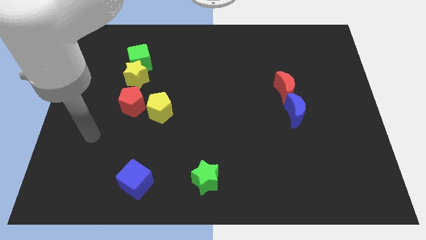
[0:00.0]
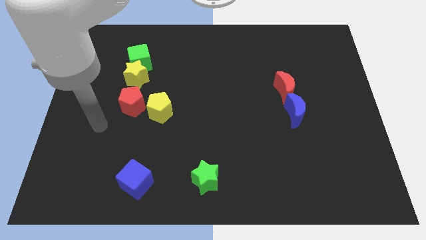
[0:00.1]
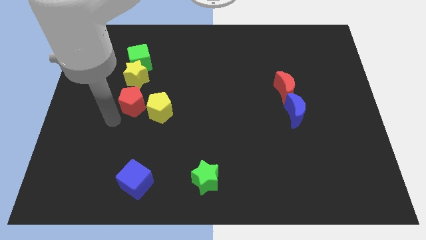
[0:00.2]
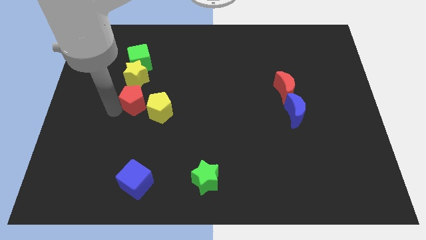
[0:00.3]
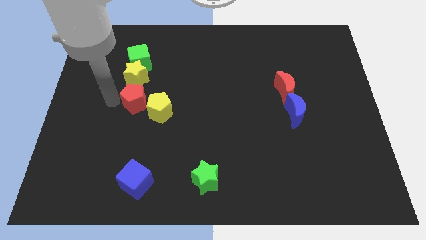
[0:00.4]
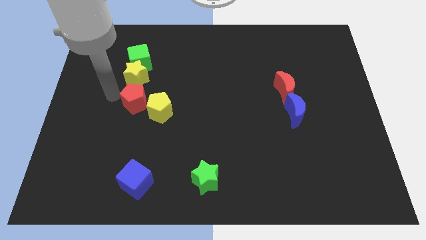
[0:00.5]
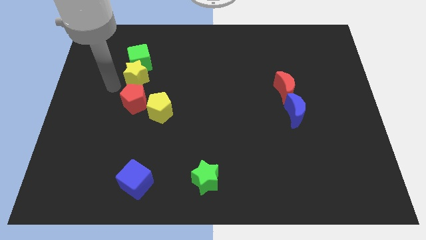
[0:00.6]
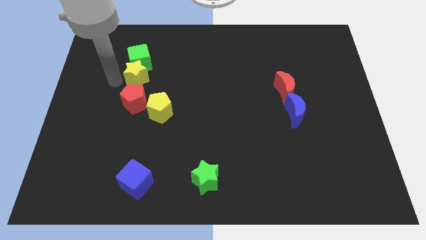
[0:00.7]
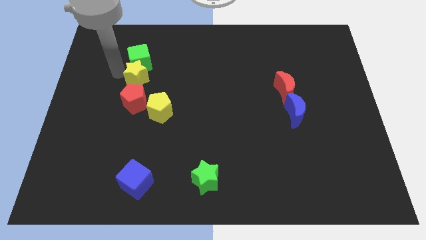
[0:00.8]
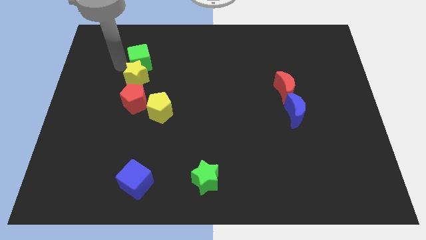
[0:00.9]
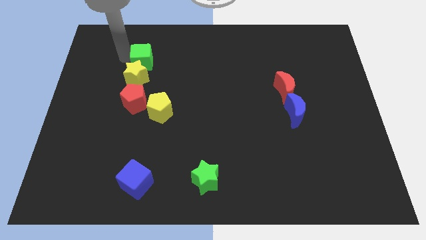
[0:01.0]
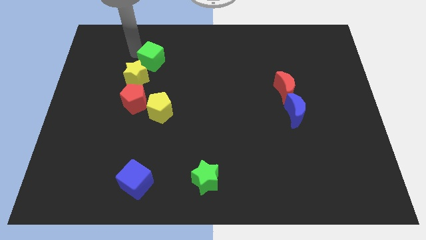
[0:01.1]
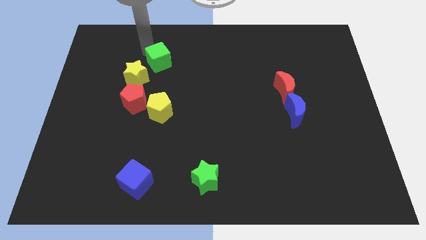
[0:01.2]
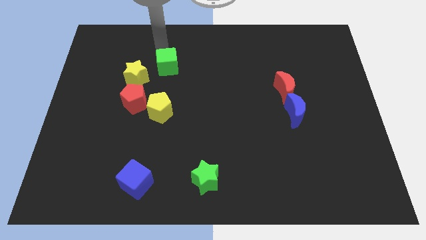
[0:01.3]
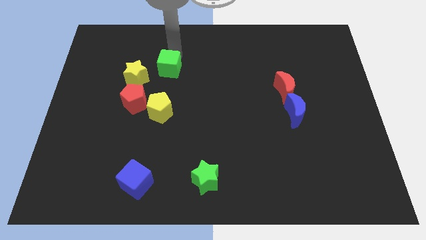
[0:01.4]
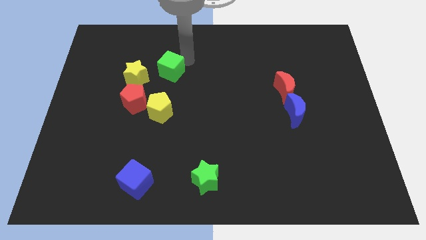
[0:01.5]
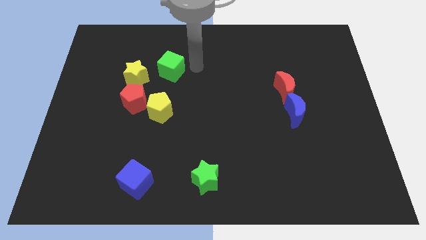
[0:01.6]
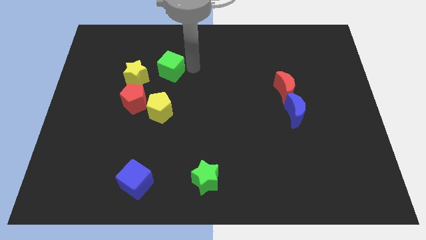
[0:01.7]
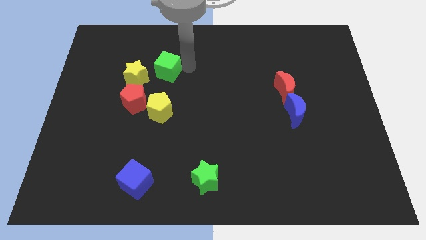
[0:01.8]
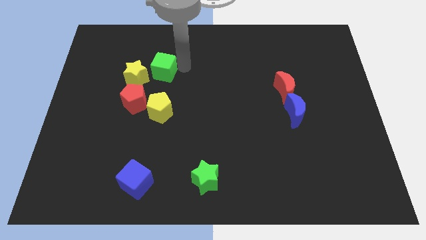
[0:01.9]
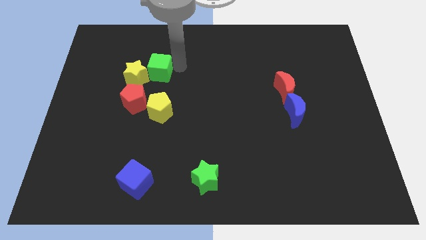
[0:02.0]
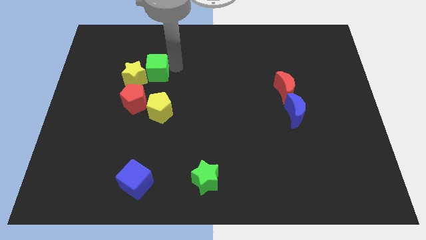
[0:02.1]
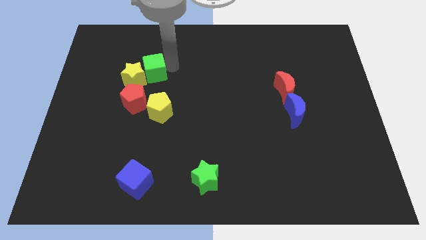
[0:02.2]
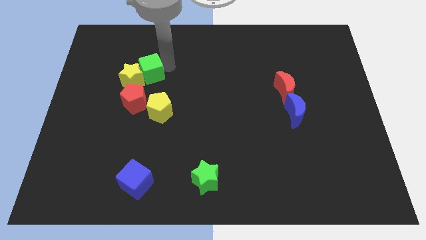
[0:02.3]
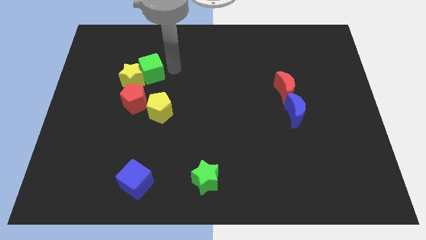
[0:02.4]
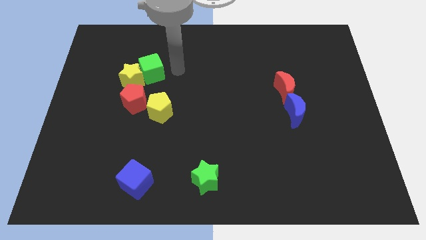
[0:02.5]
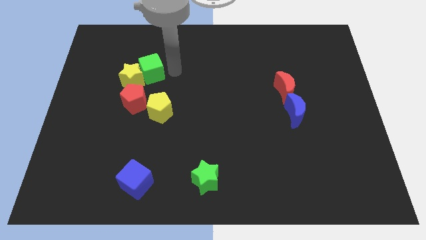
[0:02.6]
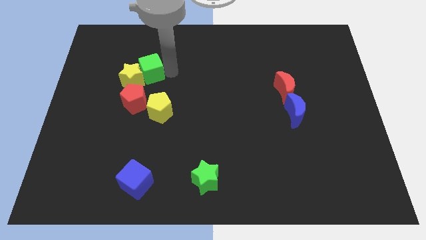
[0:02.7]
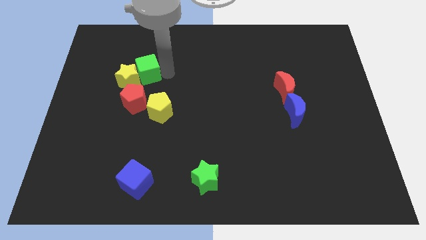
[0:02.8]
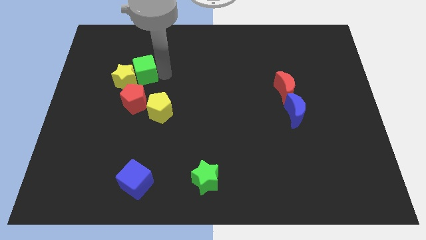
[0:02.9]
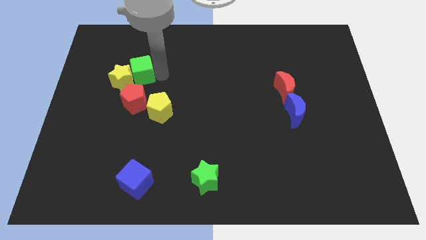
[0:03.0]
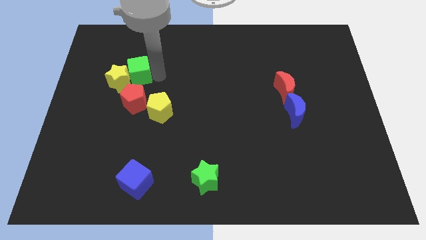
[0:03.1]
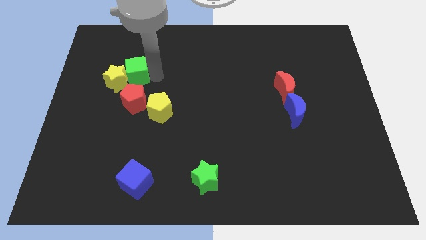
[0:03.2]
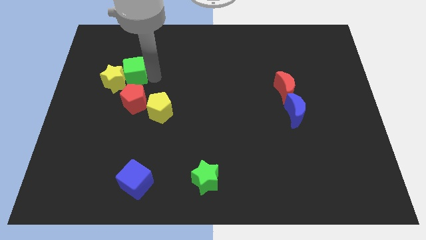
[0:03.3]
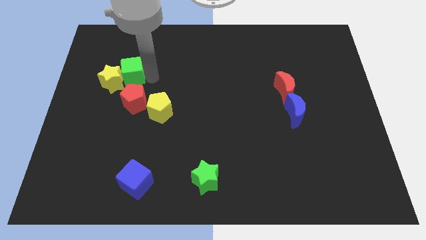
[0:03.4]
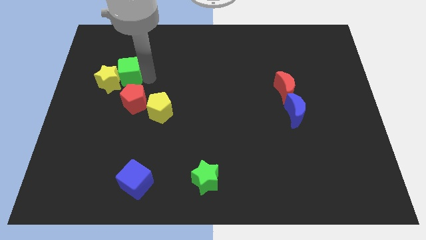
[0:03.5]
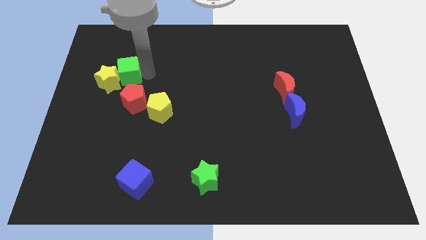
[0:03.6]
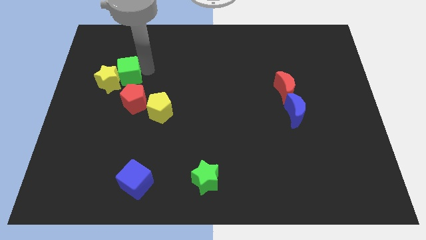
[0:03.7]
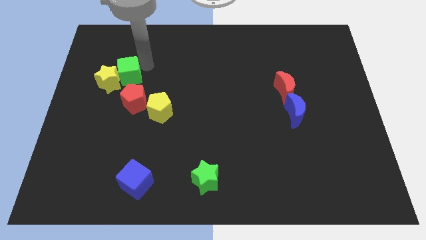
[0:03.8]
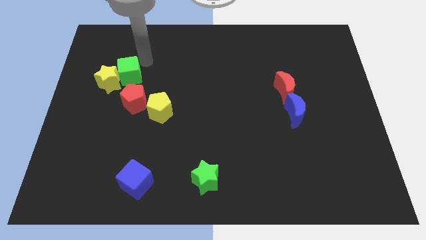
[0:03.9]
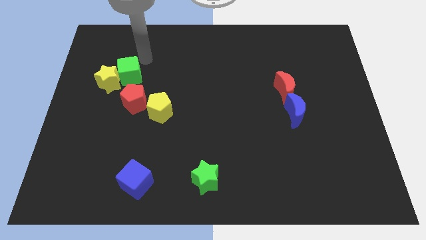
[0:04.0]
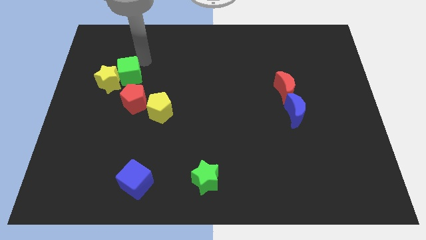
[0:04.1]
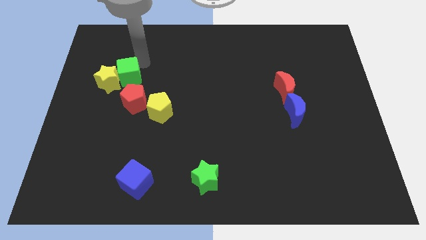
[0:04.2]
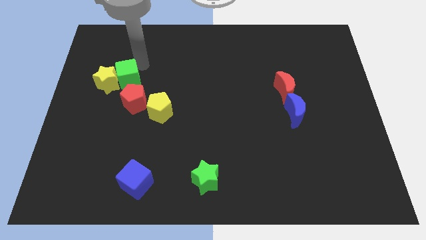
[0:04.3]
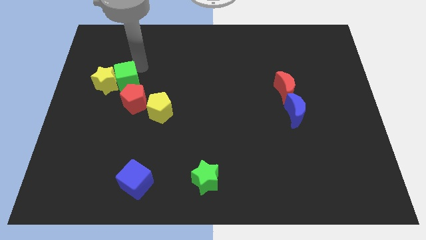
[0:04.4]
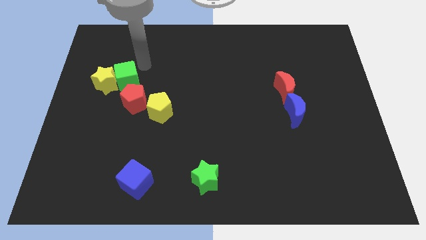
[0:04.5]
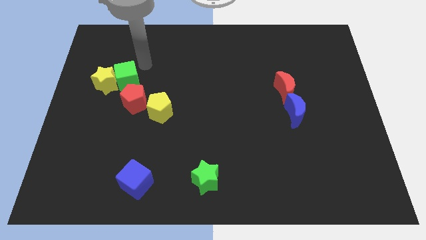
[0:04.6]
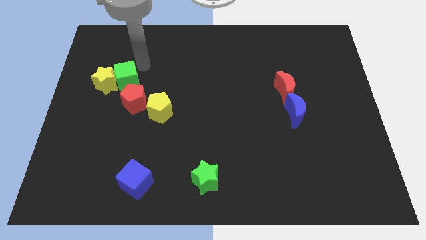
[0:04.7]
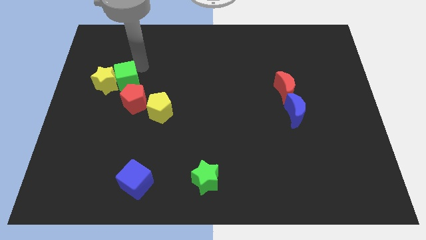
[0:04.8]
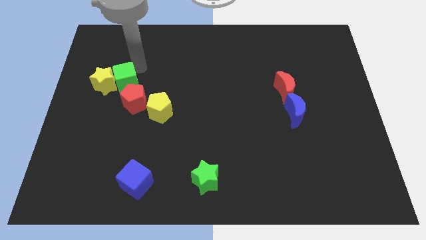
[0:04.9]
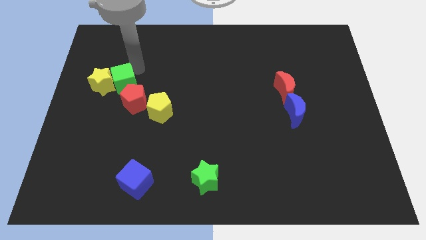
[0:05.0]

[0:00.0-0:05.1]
slide the green cube downwards slightly

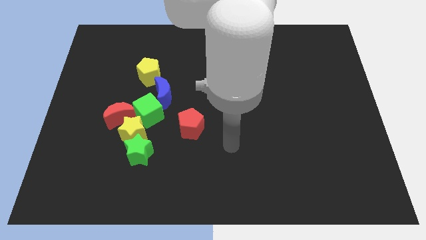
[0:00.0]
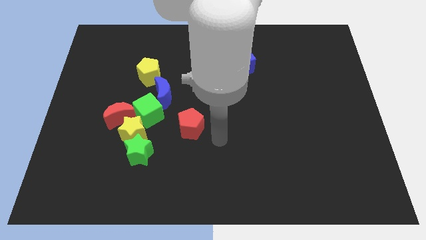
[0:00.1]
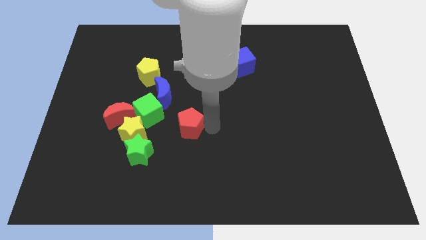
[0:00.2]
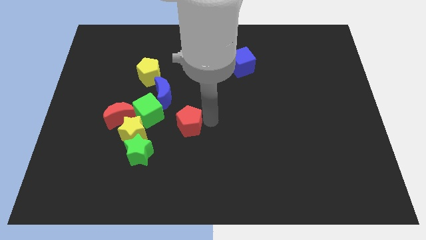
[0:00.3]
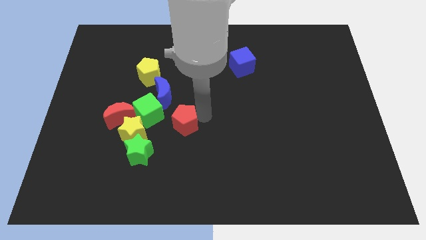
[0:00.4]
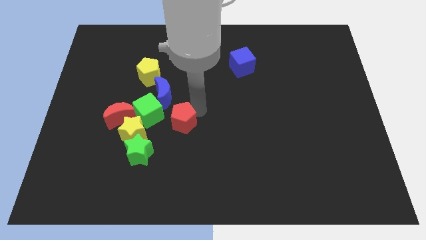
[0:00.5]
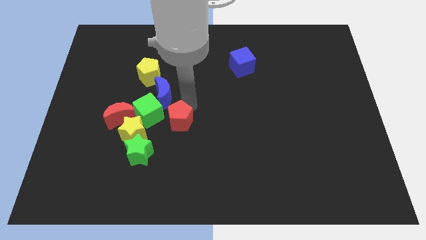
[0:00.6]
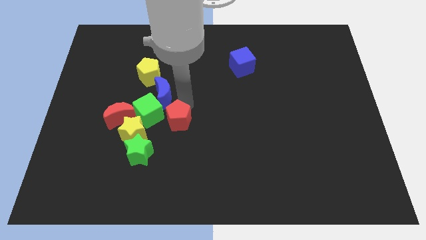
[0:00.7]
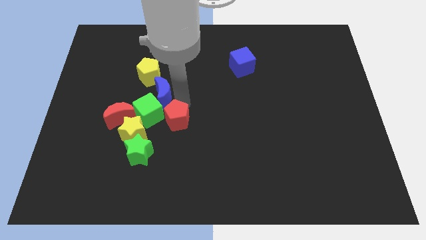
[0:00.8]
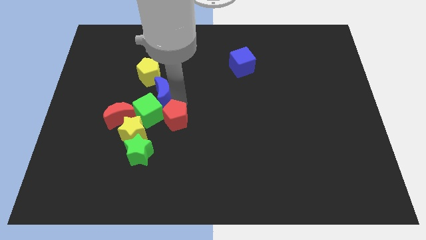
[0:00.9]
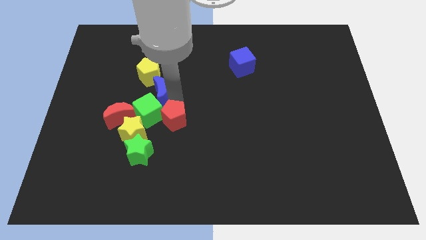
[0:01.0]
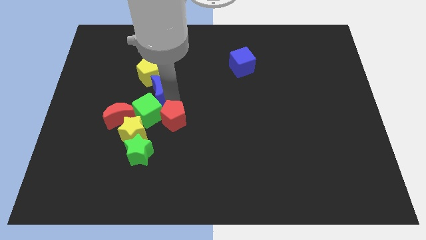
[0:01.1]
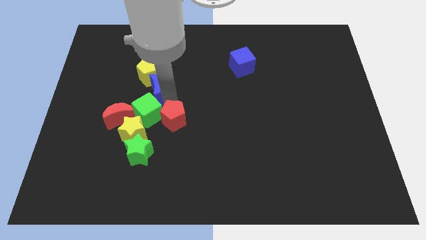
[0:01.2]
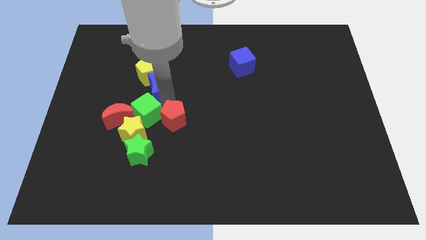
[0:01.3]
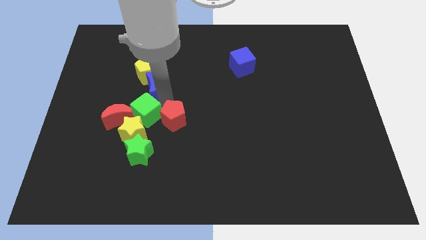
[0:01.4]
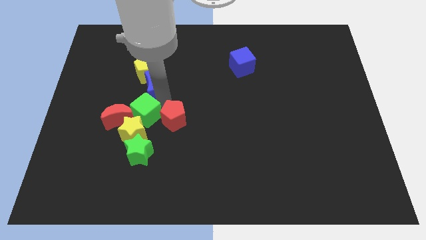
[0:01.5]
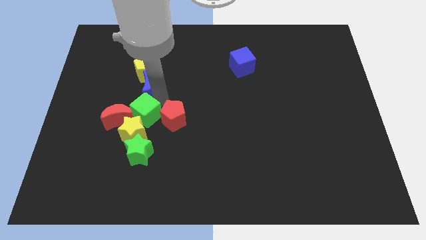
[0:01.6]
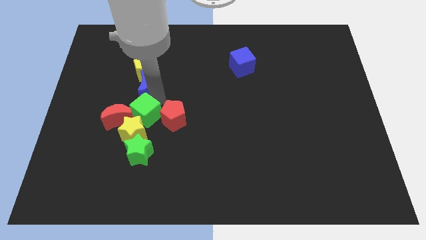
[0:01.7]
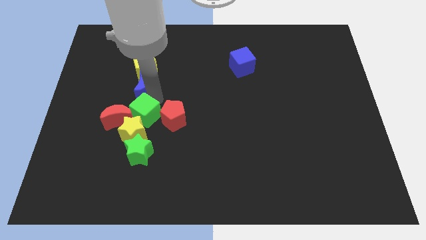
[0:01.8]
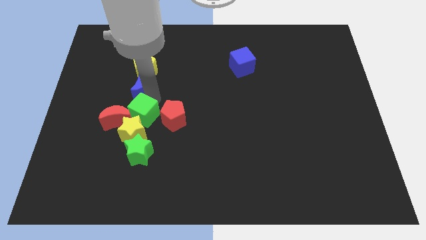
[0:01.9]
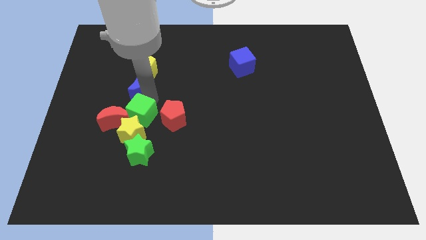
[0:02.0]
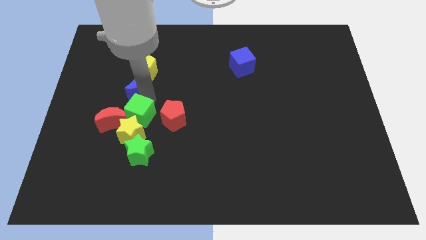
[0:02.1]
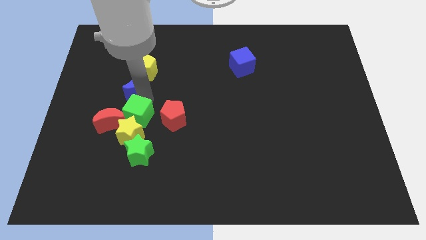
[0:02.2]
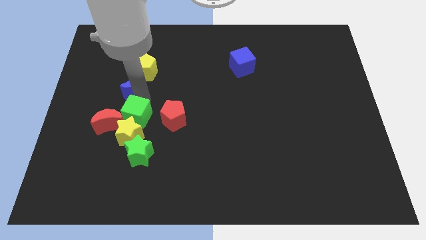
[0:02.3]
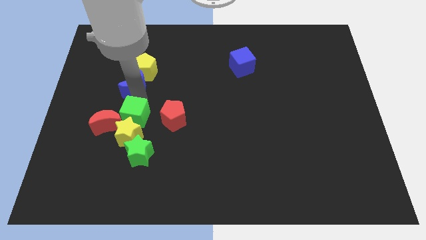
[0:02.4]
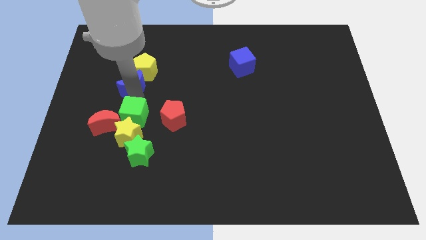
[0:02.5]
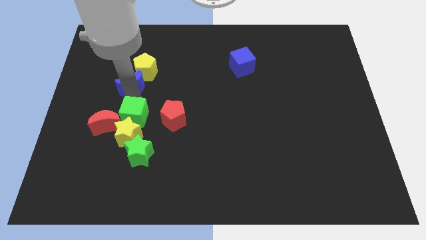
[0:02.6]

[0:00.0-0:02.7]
push the blue moon a bit upwards and left diagonally
